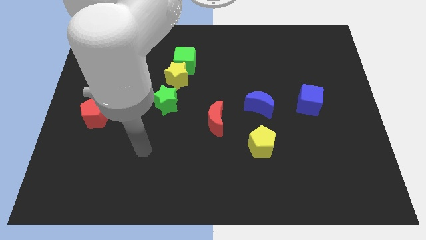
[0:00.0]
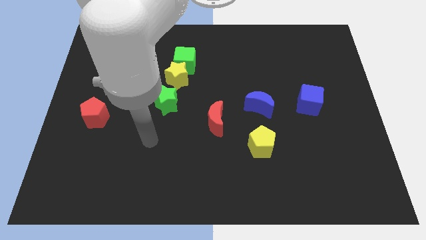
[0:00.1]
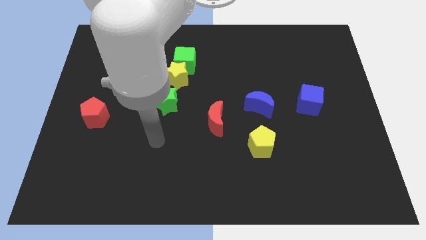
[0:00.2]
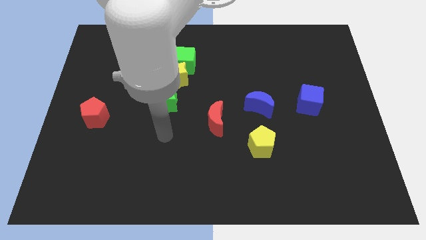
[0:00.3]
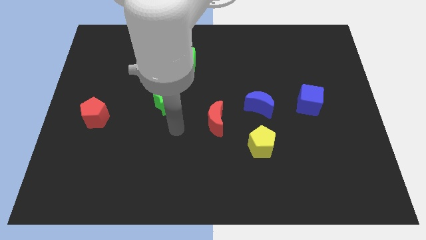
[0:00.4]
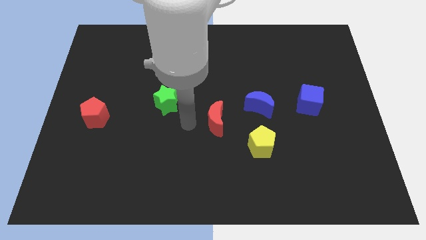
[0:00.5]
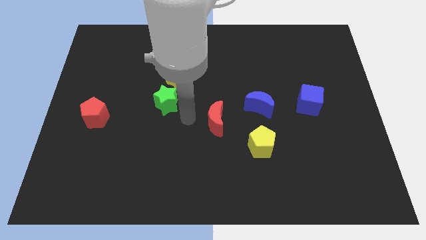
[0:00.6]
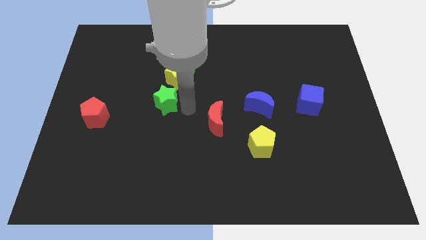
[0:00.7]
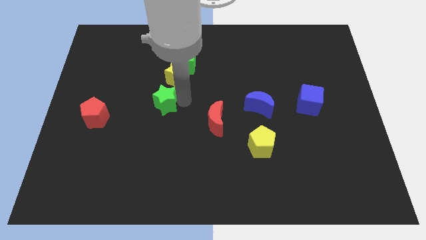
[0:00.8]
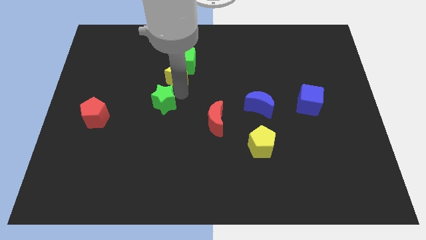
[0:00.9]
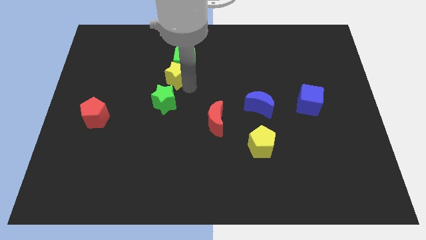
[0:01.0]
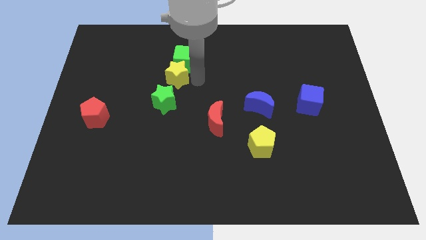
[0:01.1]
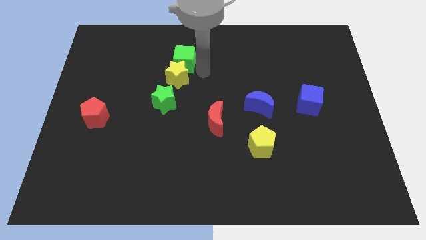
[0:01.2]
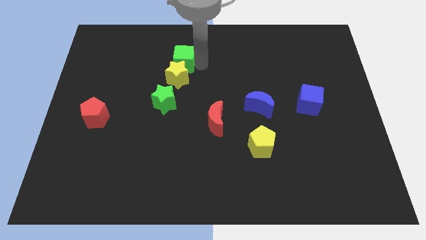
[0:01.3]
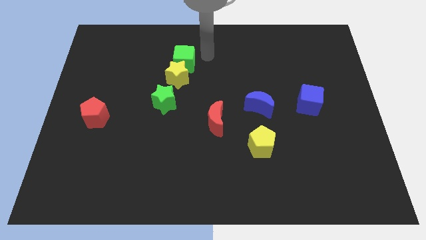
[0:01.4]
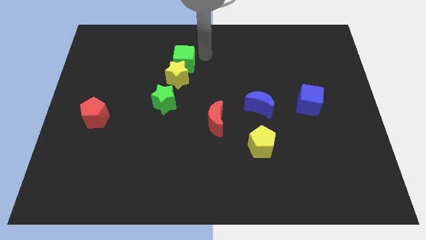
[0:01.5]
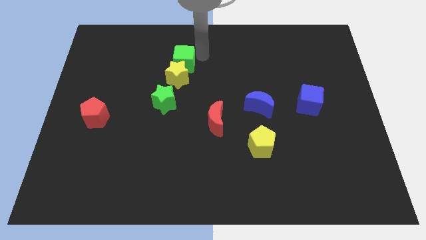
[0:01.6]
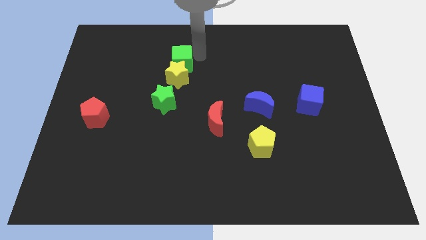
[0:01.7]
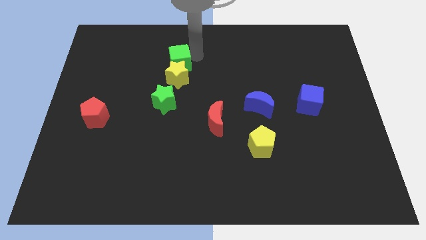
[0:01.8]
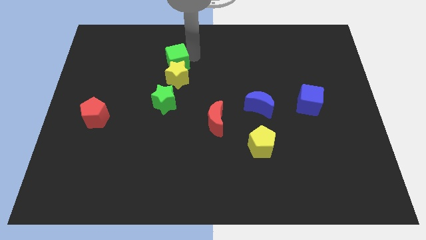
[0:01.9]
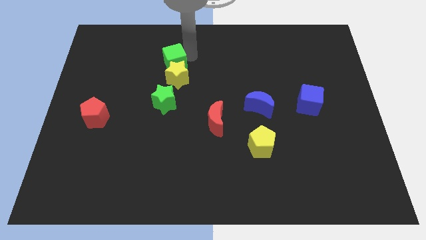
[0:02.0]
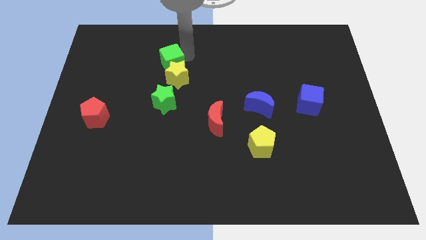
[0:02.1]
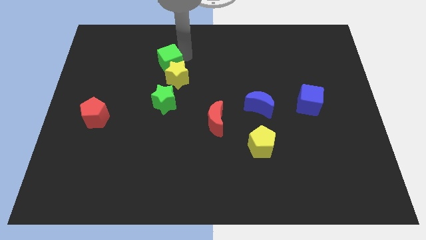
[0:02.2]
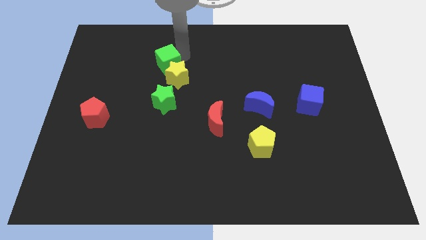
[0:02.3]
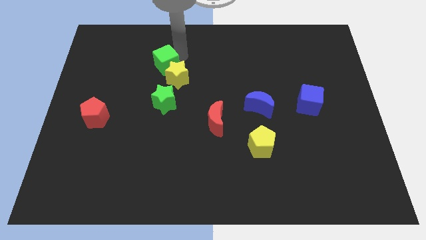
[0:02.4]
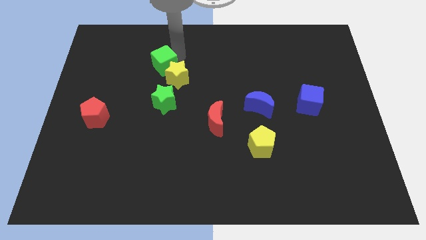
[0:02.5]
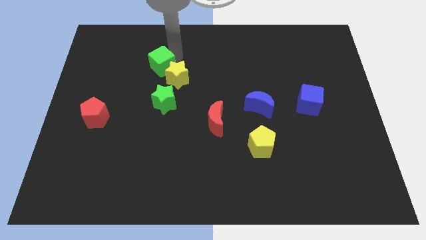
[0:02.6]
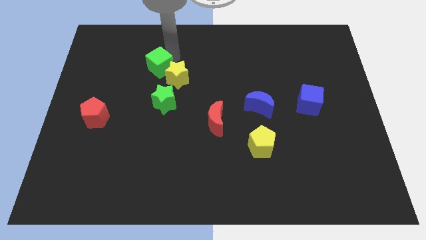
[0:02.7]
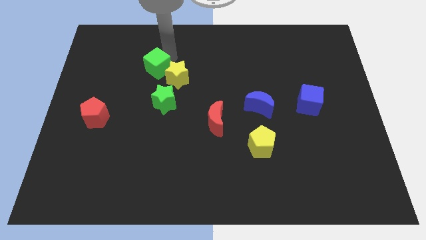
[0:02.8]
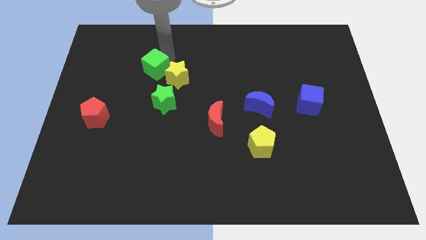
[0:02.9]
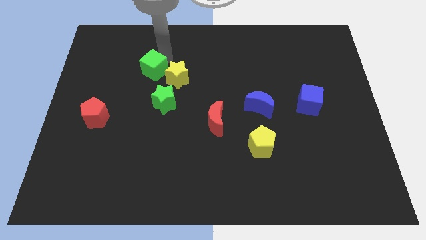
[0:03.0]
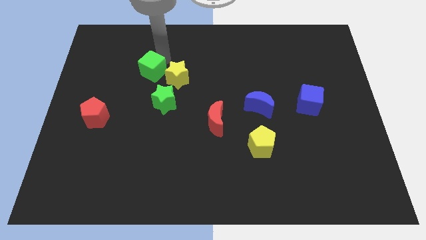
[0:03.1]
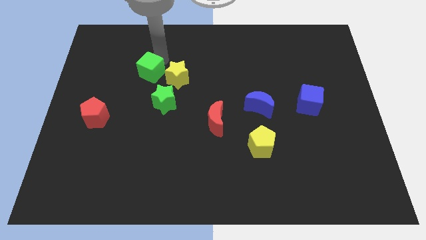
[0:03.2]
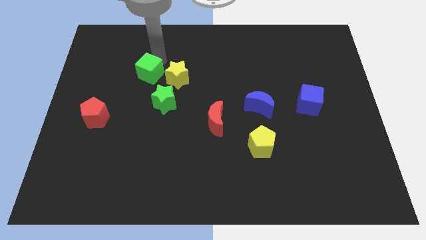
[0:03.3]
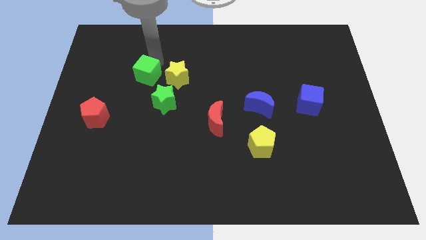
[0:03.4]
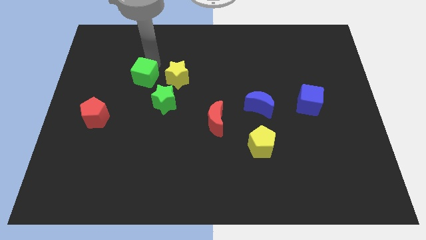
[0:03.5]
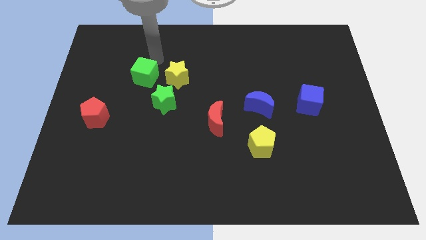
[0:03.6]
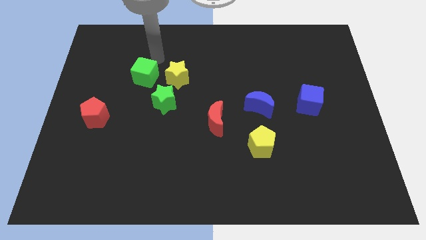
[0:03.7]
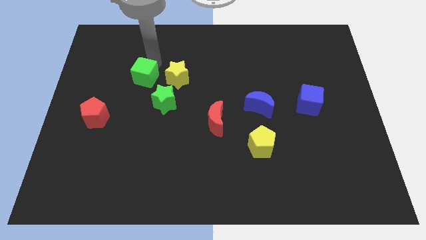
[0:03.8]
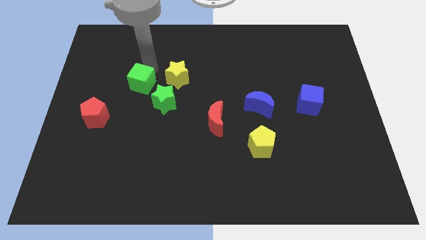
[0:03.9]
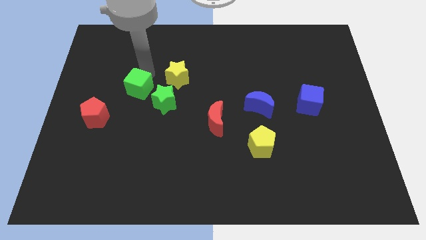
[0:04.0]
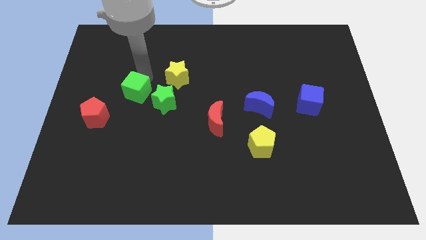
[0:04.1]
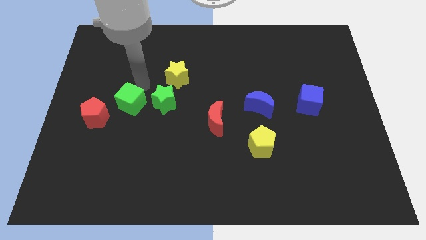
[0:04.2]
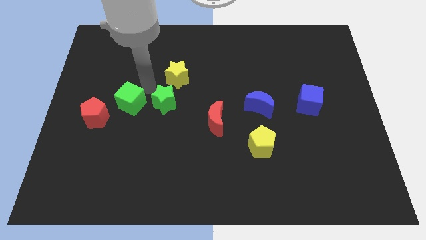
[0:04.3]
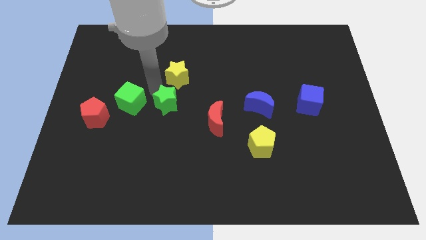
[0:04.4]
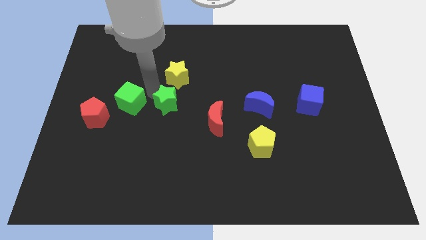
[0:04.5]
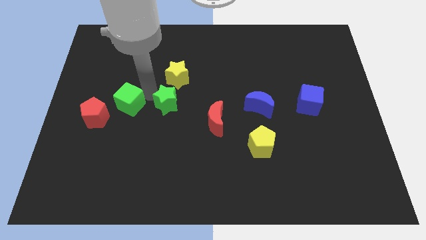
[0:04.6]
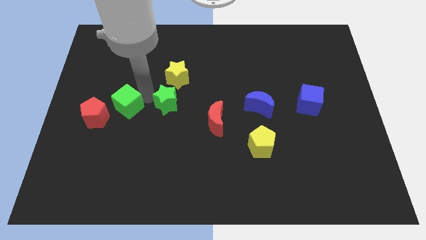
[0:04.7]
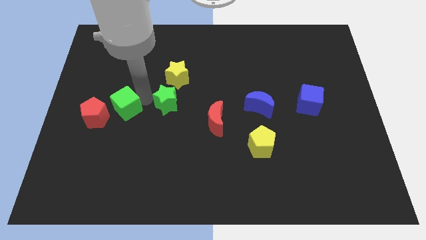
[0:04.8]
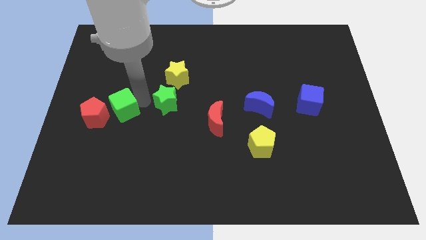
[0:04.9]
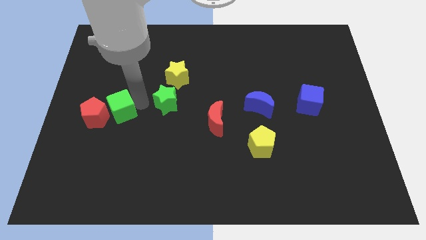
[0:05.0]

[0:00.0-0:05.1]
push the green cube to the red pentagon

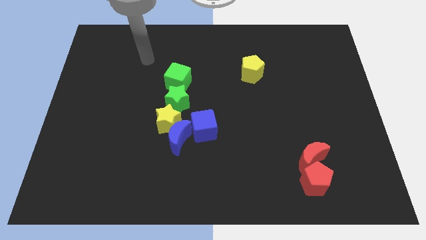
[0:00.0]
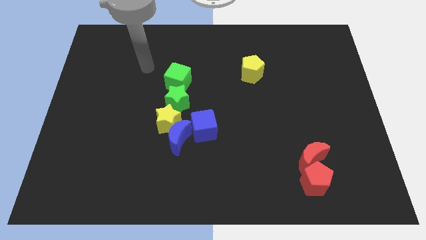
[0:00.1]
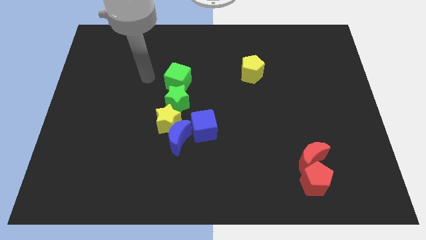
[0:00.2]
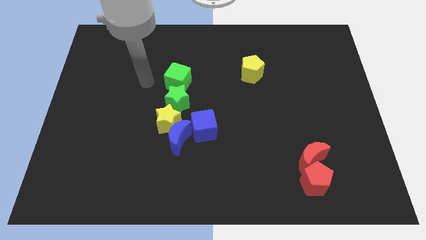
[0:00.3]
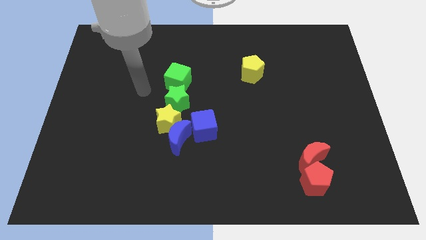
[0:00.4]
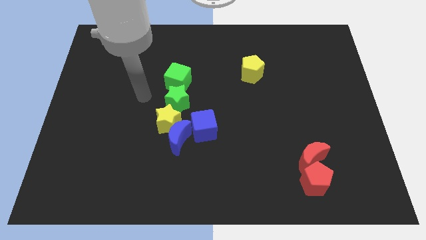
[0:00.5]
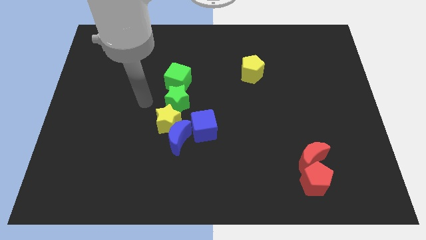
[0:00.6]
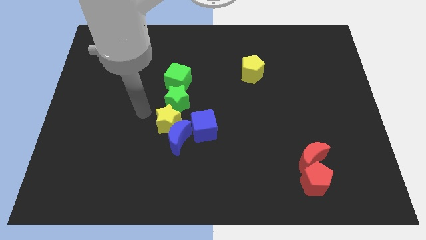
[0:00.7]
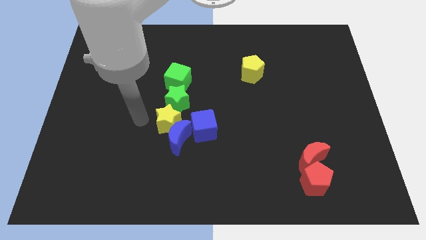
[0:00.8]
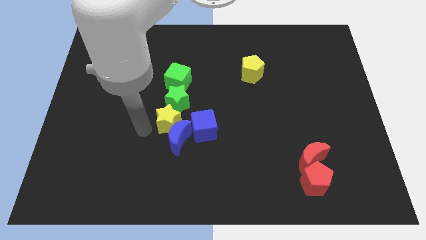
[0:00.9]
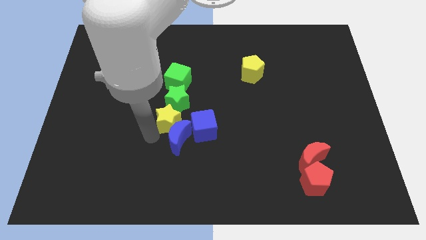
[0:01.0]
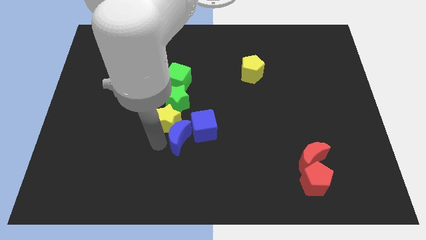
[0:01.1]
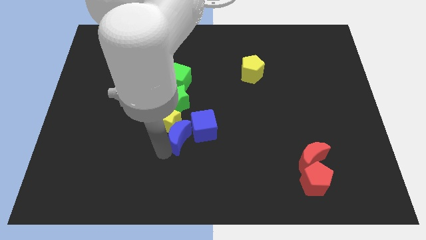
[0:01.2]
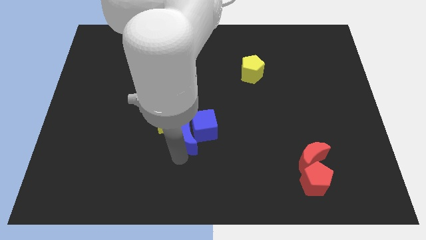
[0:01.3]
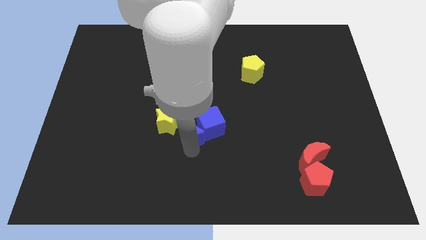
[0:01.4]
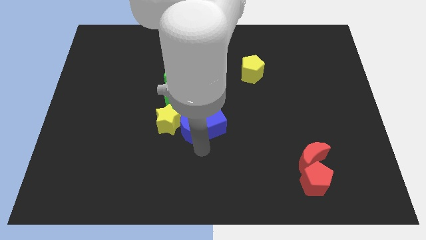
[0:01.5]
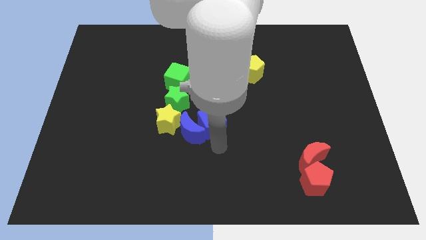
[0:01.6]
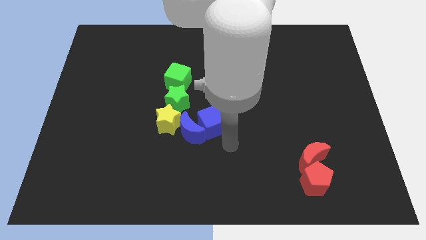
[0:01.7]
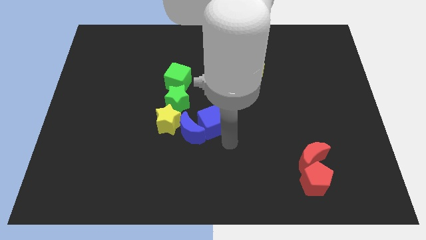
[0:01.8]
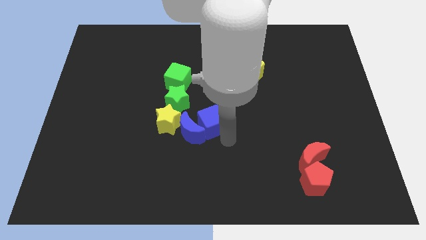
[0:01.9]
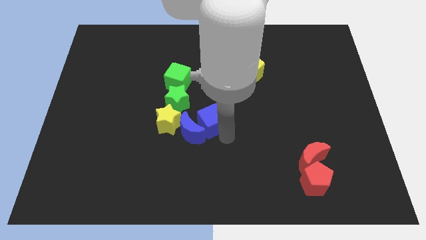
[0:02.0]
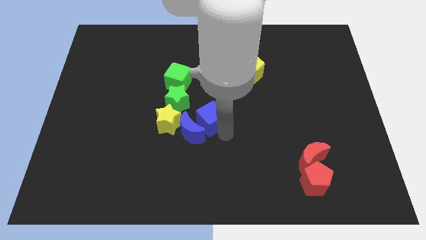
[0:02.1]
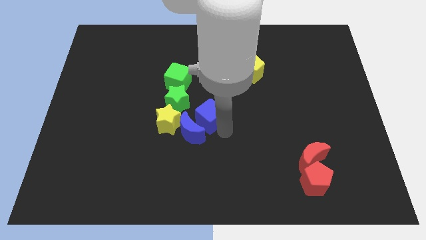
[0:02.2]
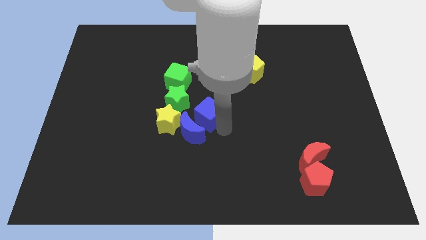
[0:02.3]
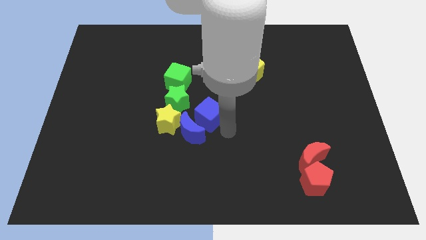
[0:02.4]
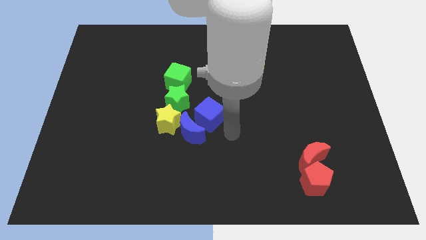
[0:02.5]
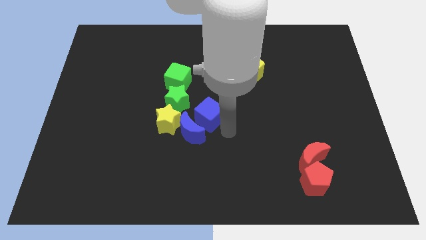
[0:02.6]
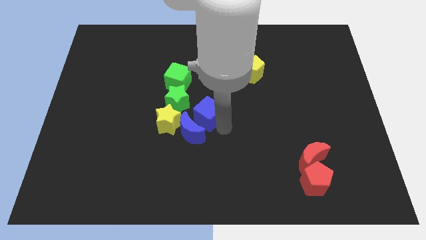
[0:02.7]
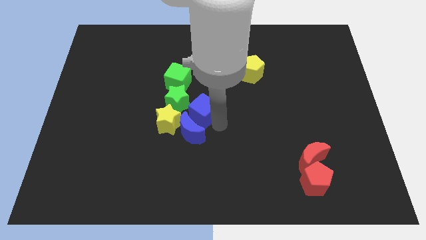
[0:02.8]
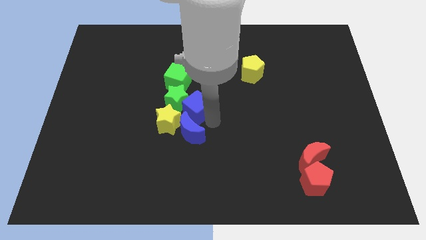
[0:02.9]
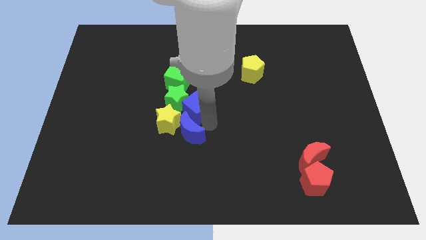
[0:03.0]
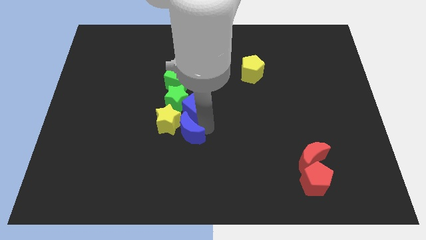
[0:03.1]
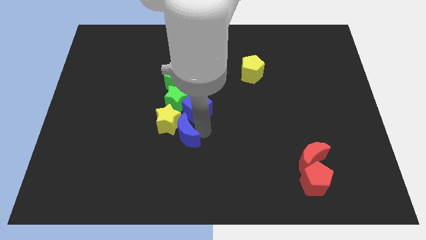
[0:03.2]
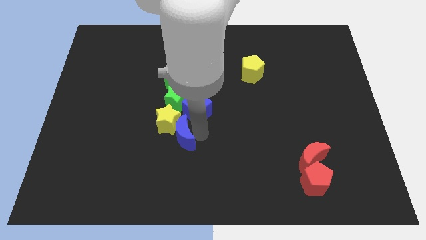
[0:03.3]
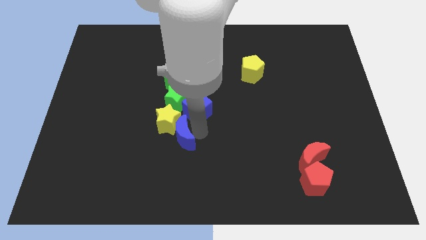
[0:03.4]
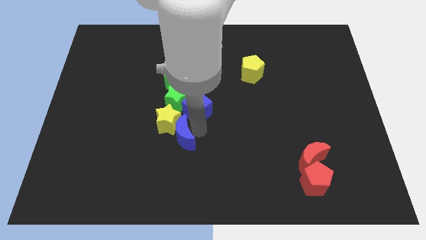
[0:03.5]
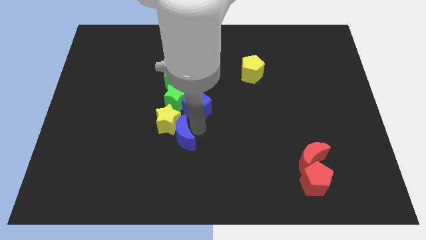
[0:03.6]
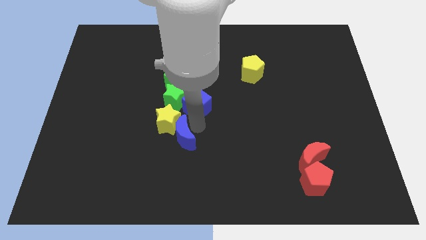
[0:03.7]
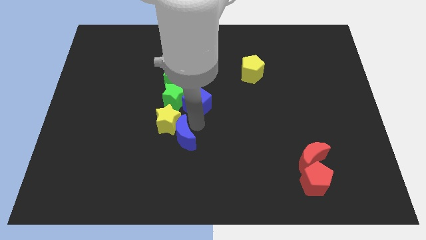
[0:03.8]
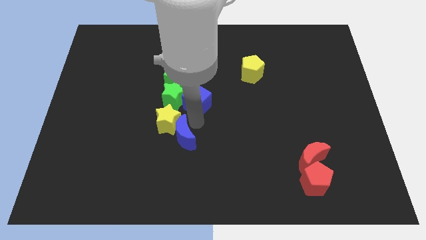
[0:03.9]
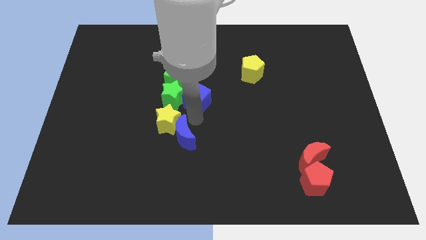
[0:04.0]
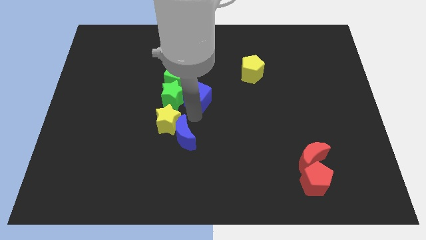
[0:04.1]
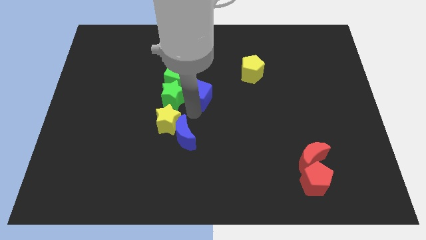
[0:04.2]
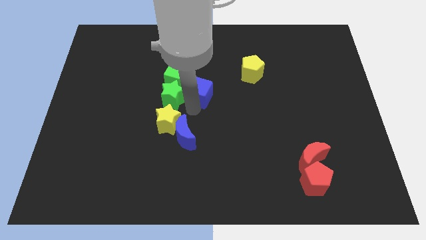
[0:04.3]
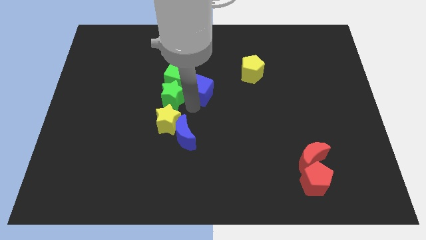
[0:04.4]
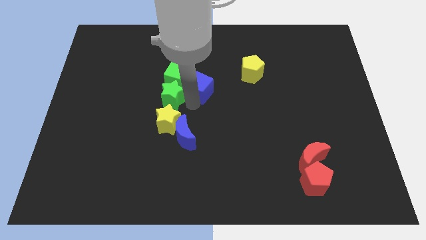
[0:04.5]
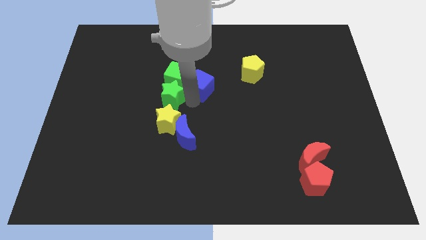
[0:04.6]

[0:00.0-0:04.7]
put the blue cube next to the green cube
